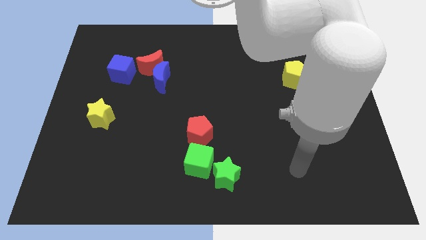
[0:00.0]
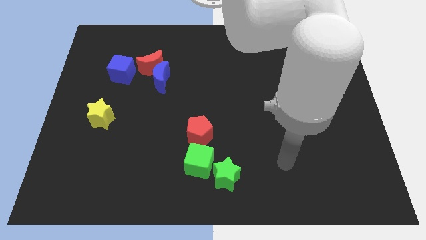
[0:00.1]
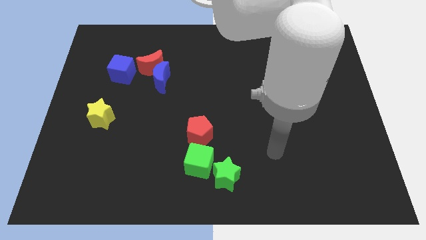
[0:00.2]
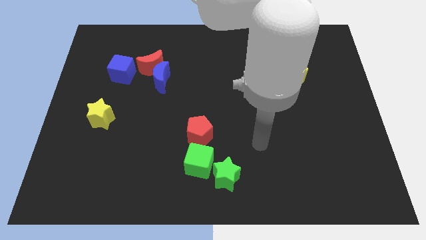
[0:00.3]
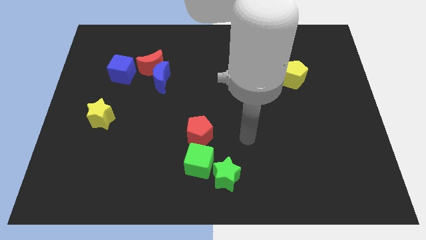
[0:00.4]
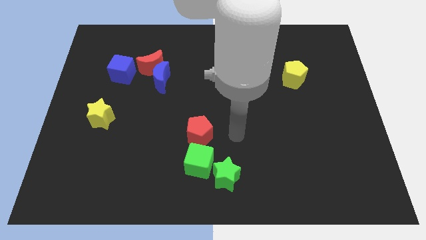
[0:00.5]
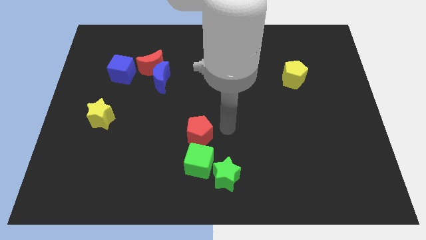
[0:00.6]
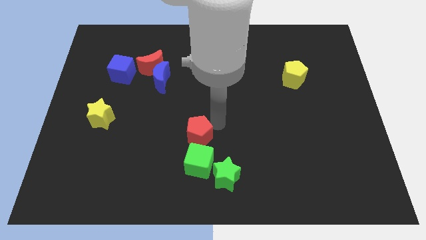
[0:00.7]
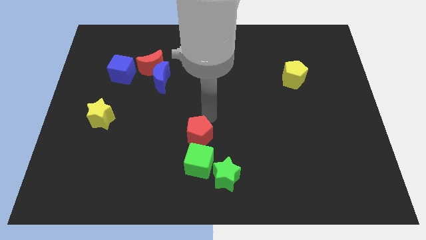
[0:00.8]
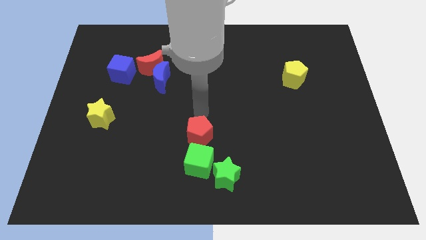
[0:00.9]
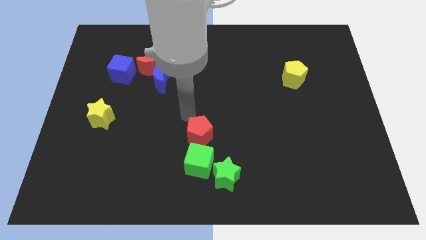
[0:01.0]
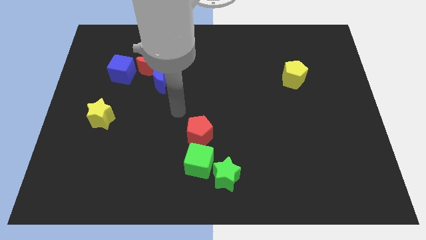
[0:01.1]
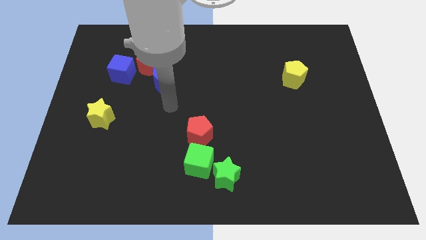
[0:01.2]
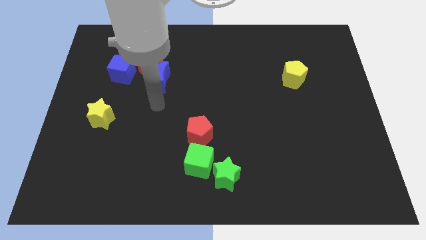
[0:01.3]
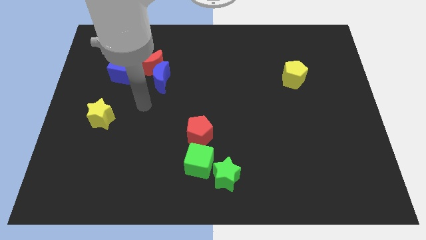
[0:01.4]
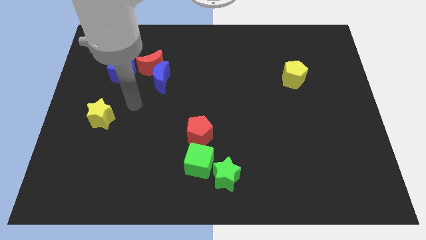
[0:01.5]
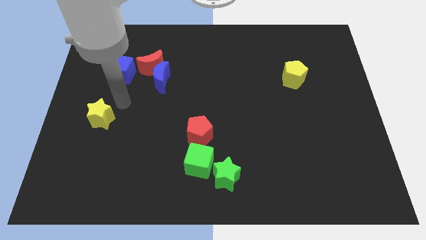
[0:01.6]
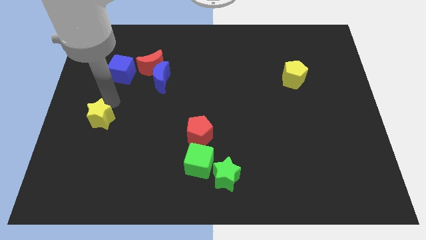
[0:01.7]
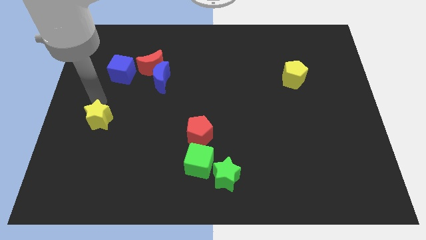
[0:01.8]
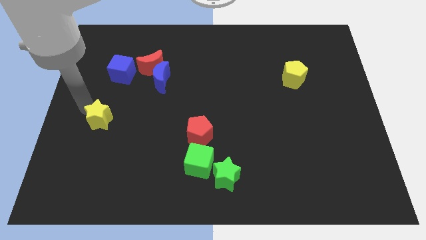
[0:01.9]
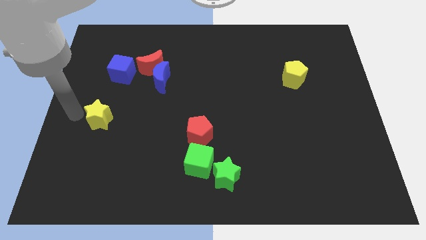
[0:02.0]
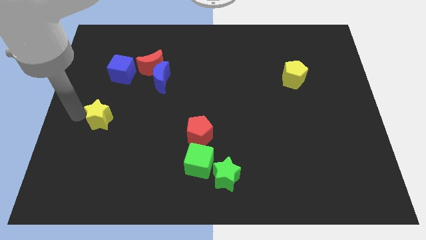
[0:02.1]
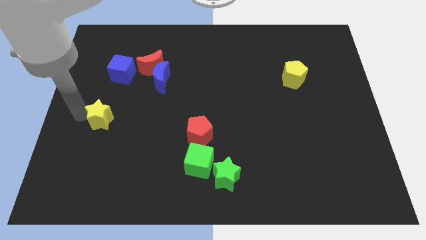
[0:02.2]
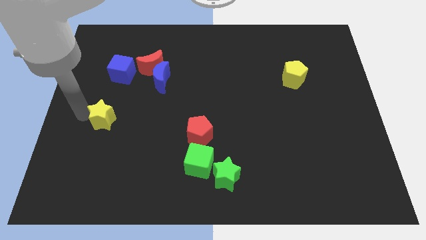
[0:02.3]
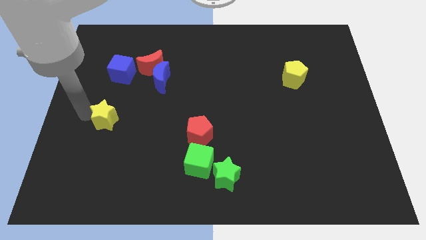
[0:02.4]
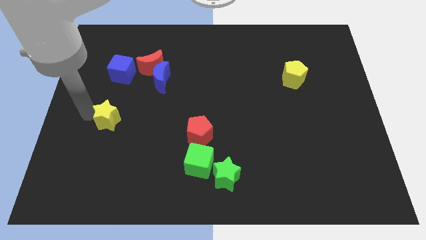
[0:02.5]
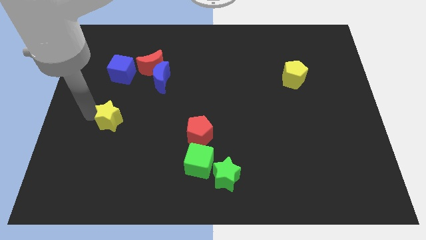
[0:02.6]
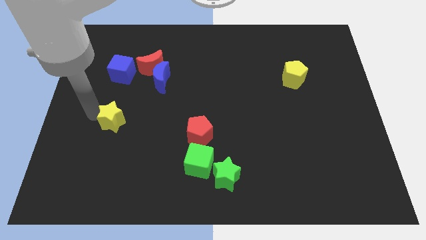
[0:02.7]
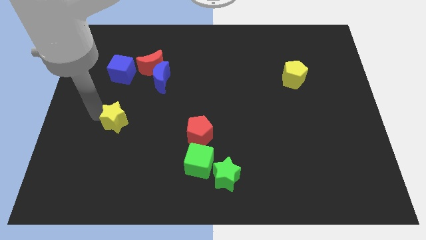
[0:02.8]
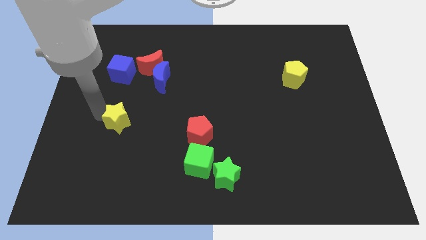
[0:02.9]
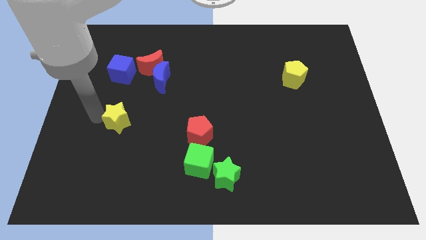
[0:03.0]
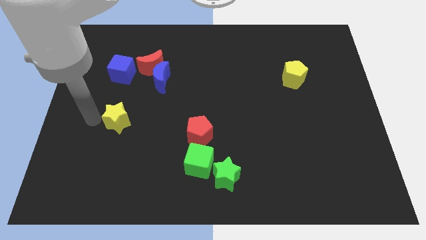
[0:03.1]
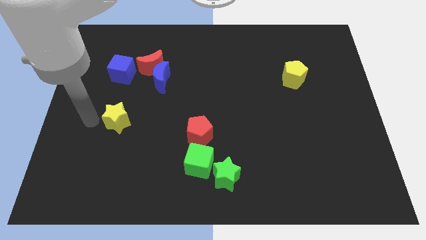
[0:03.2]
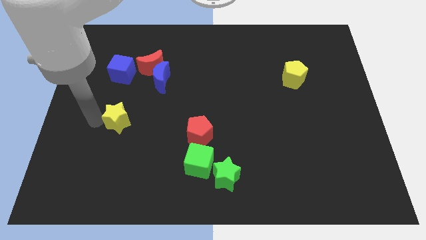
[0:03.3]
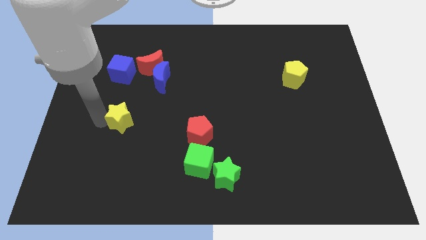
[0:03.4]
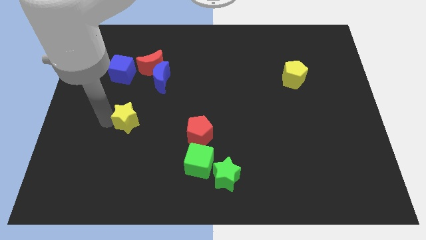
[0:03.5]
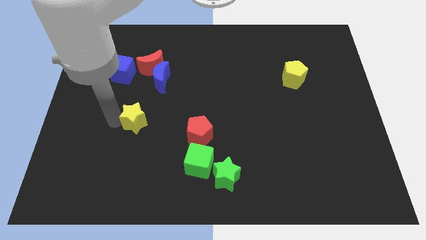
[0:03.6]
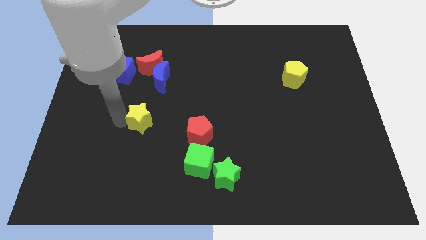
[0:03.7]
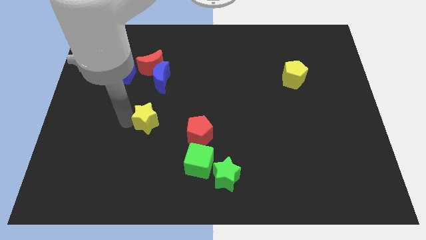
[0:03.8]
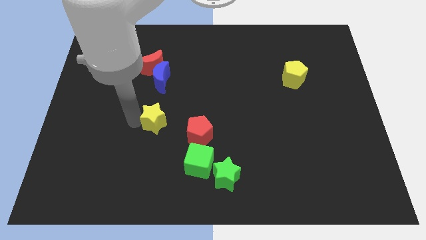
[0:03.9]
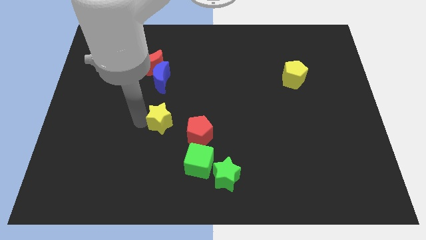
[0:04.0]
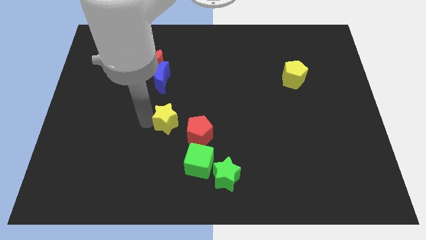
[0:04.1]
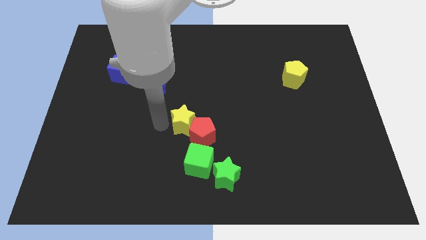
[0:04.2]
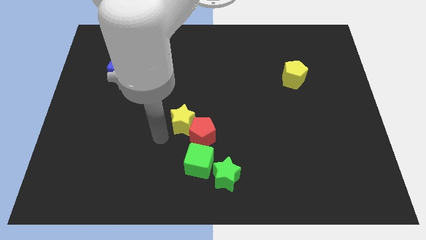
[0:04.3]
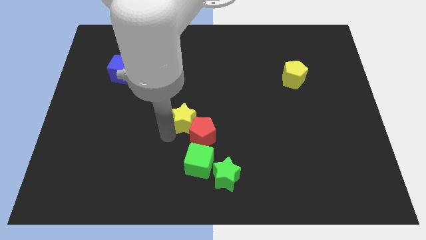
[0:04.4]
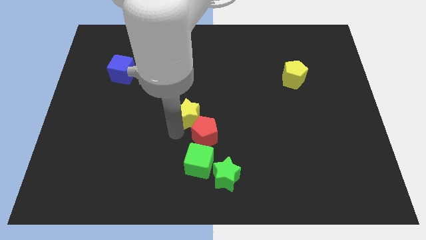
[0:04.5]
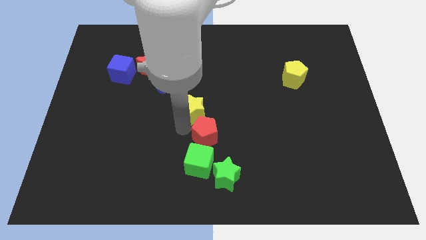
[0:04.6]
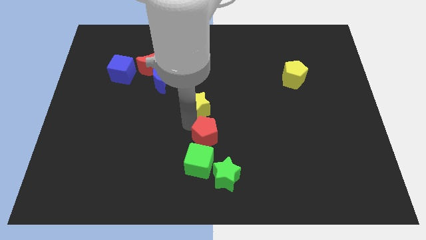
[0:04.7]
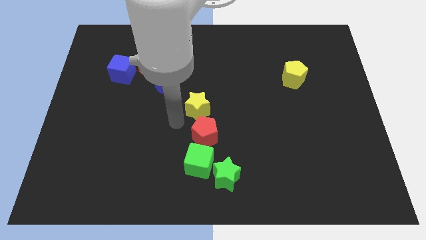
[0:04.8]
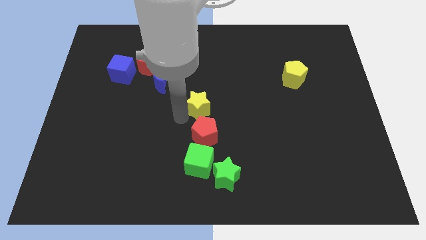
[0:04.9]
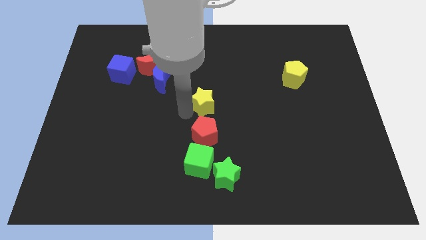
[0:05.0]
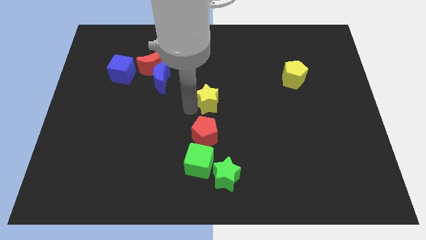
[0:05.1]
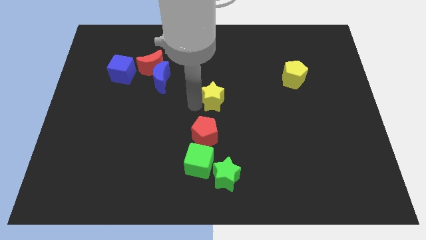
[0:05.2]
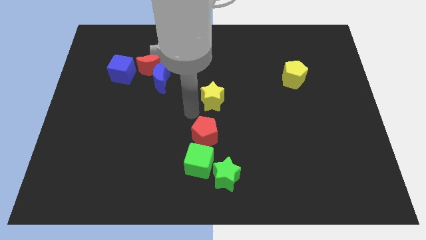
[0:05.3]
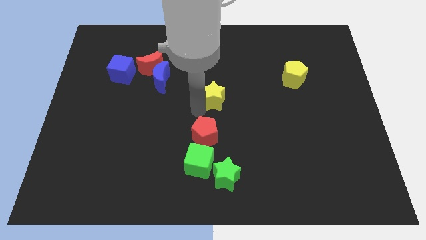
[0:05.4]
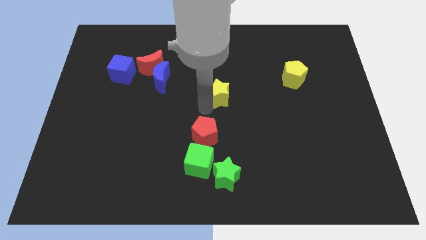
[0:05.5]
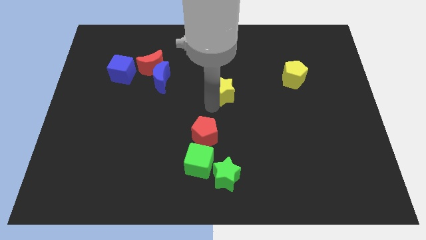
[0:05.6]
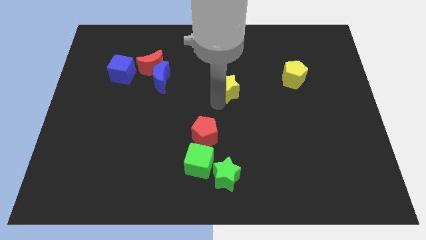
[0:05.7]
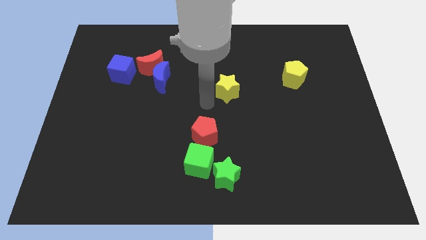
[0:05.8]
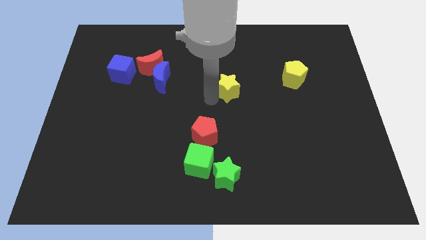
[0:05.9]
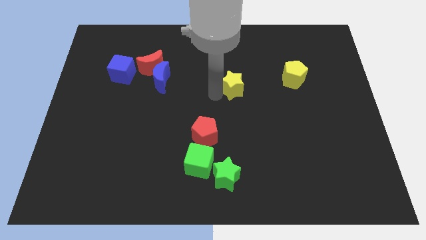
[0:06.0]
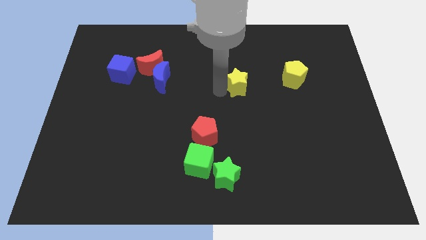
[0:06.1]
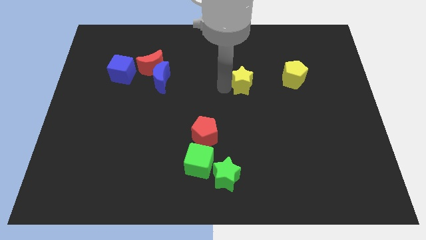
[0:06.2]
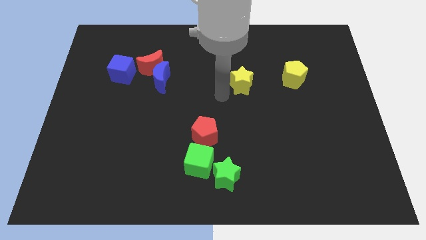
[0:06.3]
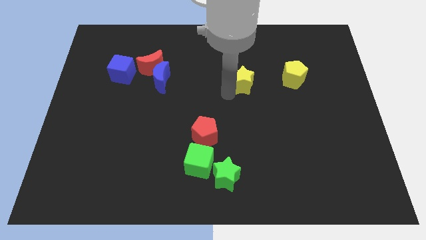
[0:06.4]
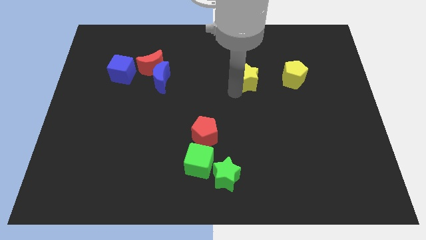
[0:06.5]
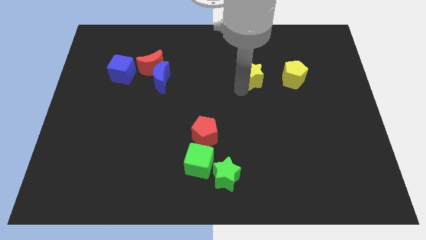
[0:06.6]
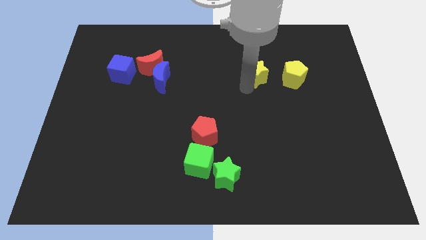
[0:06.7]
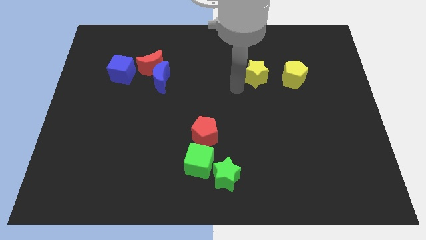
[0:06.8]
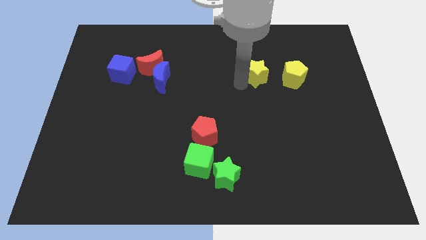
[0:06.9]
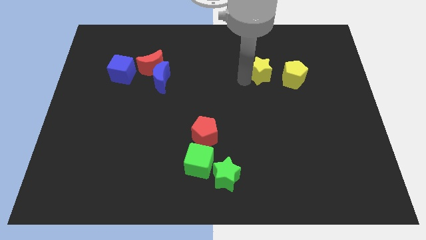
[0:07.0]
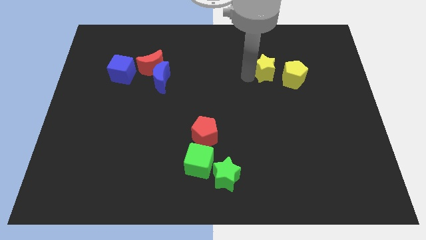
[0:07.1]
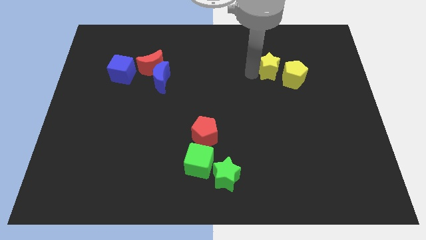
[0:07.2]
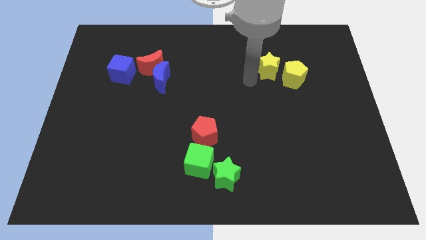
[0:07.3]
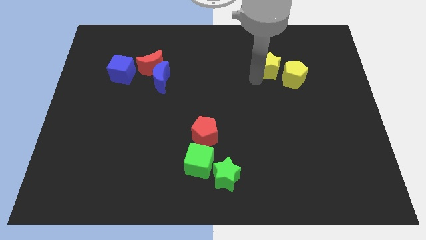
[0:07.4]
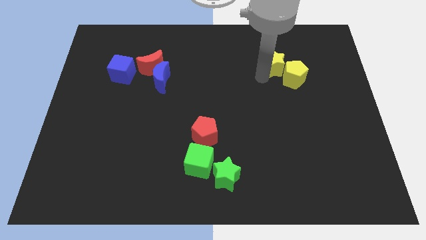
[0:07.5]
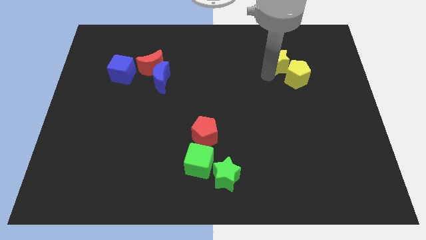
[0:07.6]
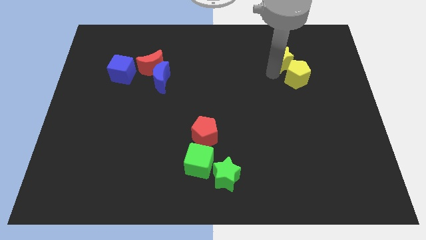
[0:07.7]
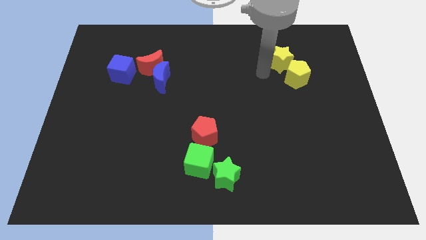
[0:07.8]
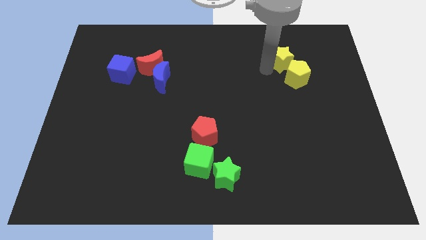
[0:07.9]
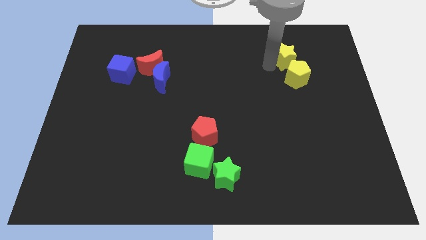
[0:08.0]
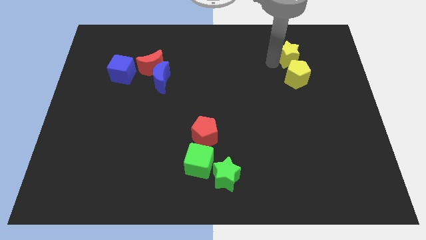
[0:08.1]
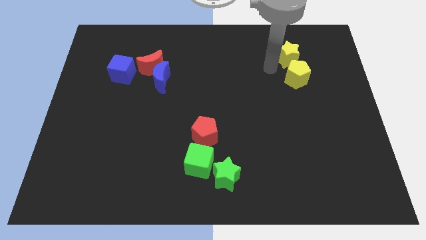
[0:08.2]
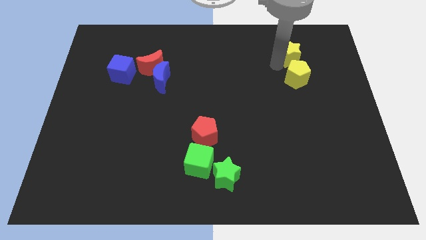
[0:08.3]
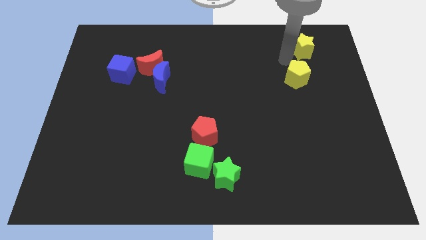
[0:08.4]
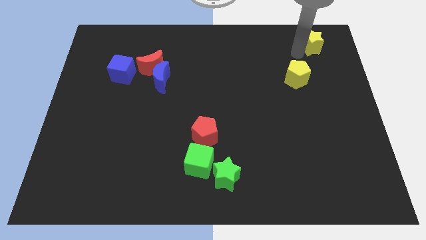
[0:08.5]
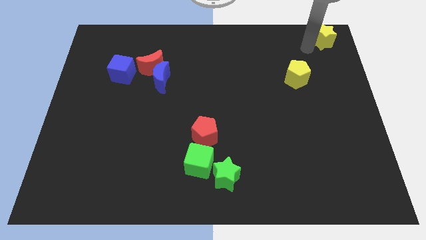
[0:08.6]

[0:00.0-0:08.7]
move the yellow star to the top right of the board
